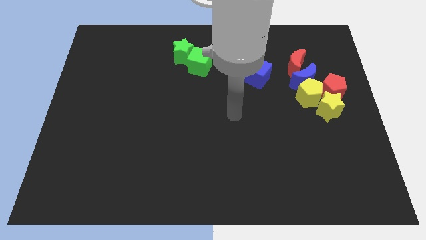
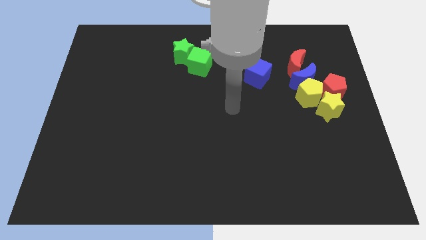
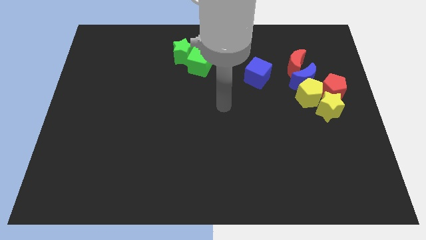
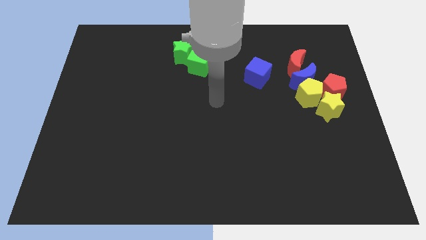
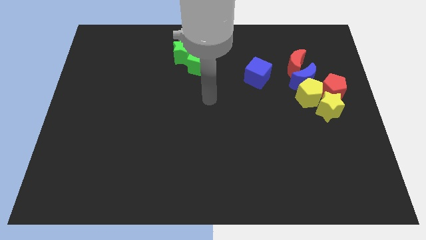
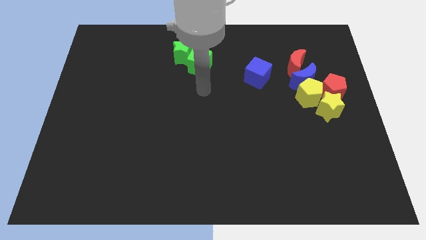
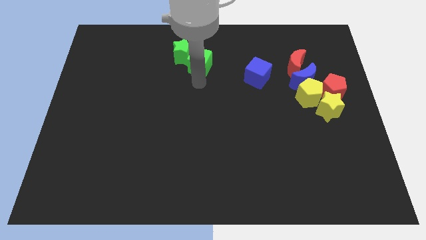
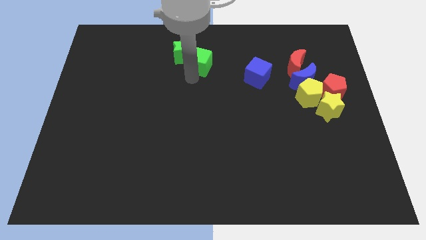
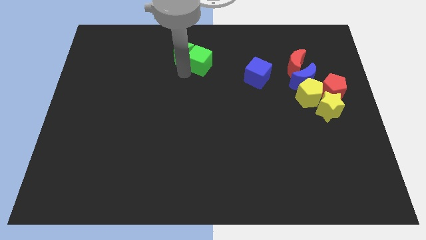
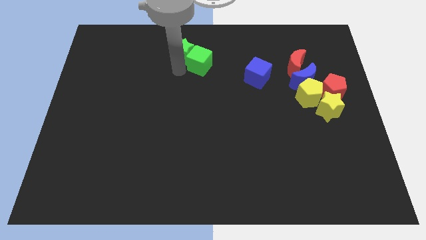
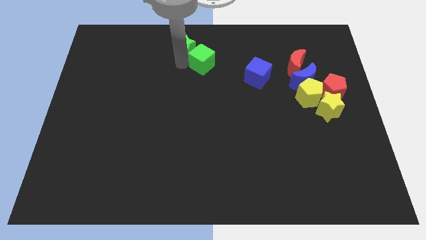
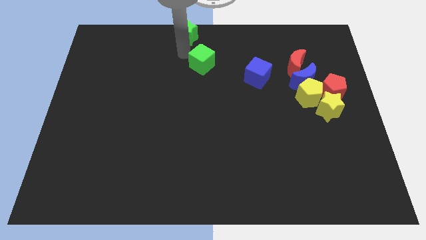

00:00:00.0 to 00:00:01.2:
pull the green cube apart from the green star

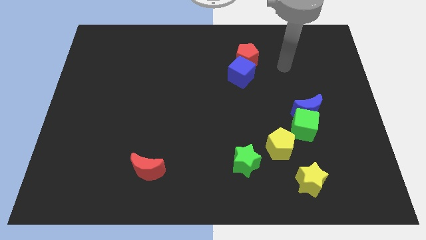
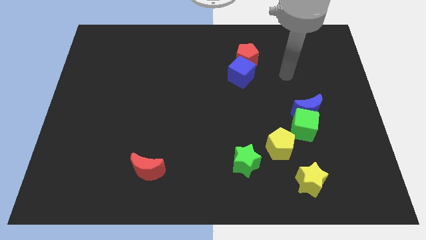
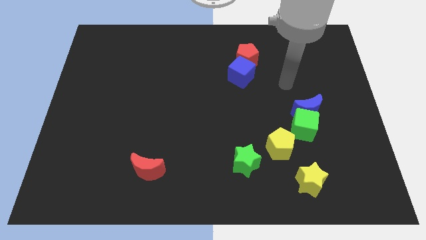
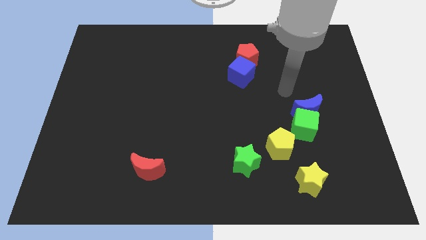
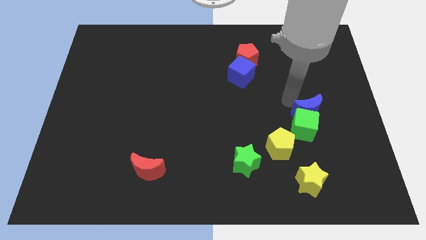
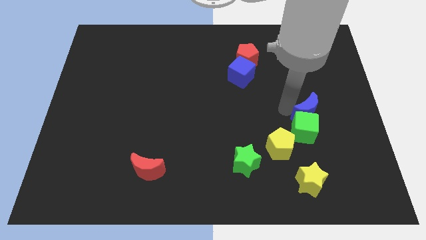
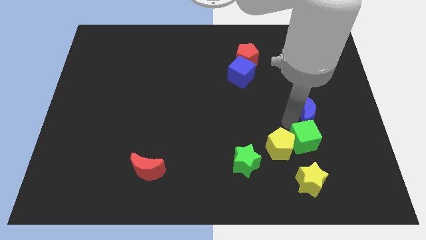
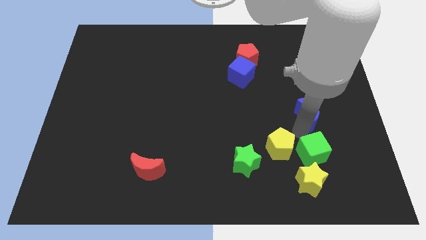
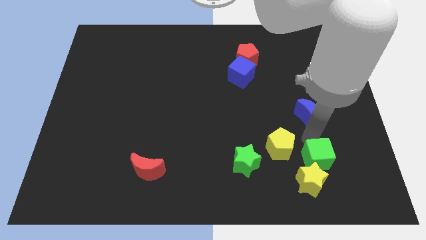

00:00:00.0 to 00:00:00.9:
pull the blue moon apart from the green cube

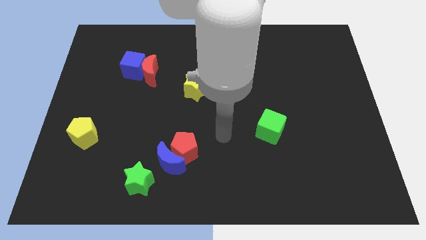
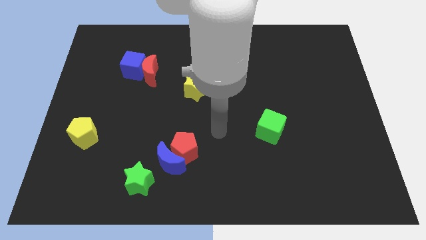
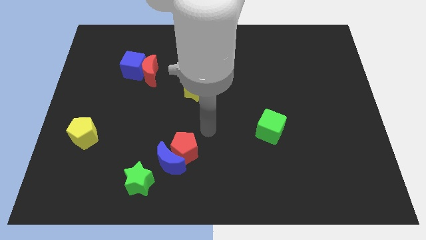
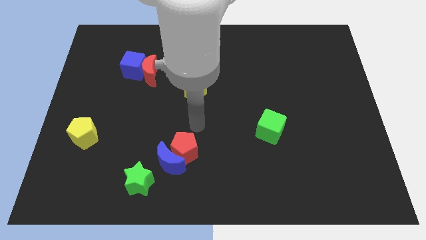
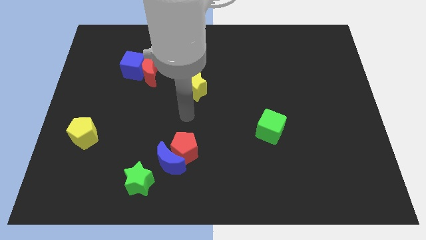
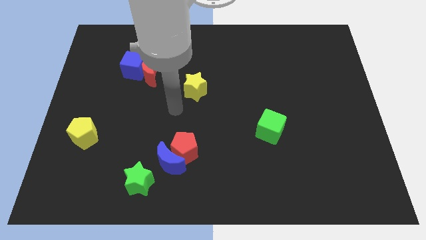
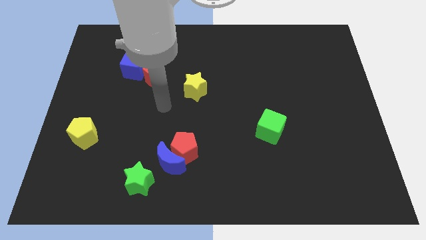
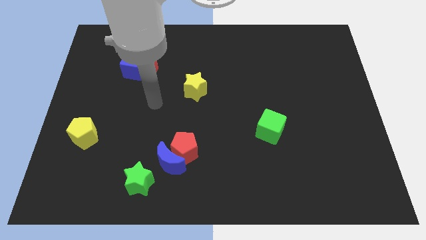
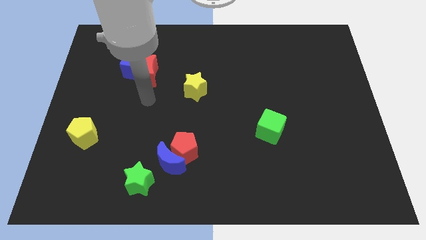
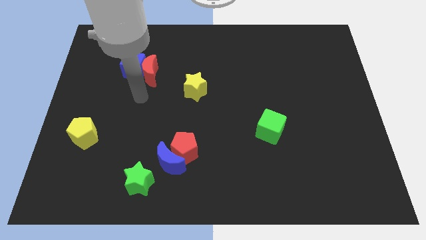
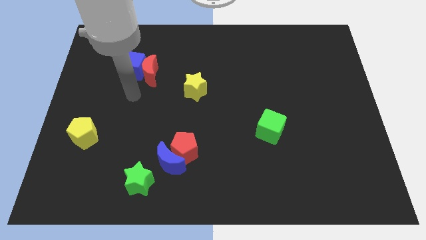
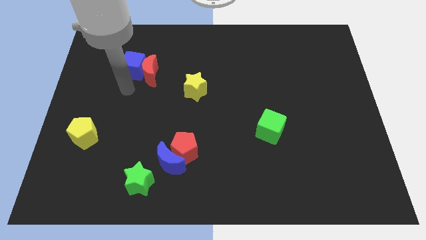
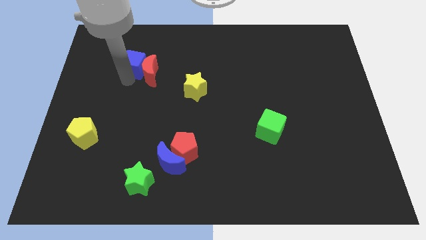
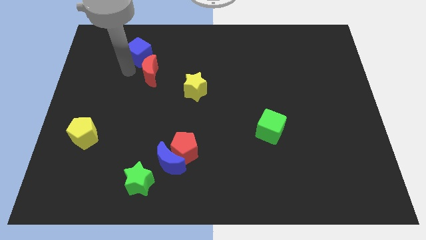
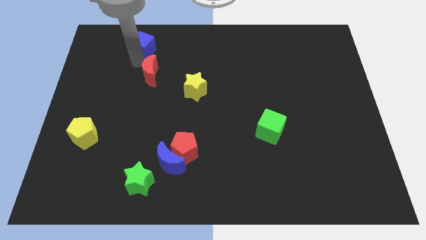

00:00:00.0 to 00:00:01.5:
pull the red moon apart from the blue cube

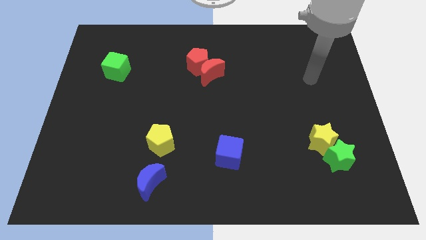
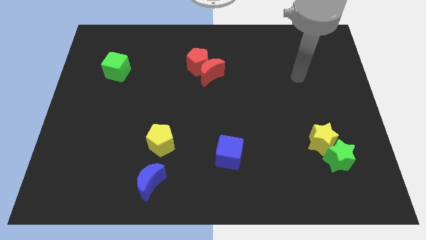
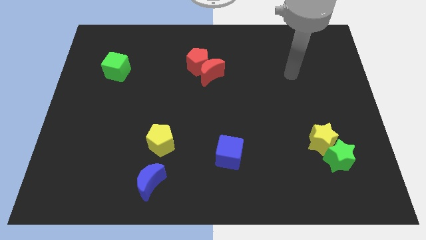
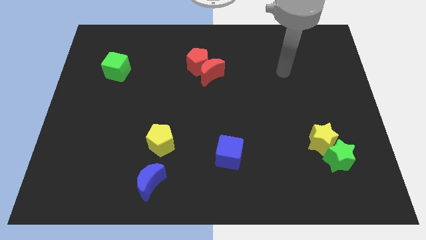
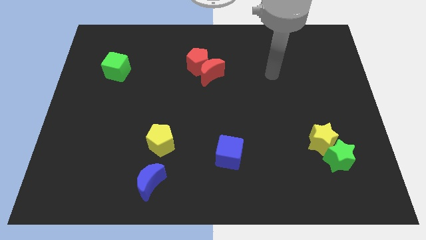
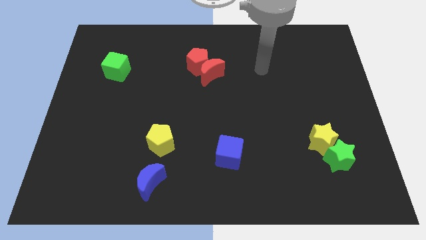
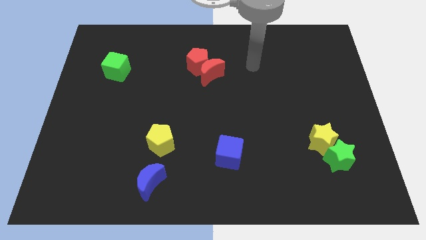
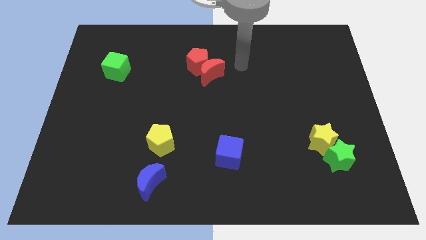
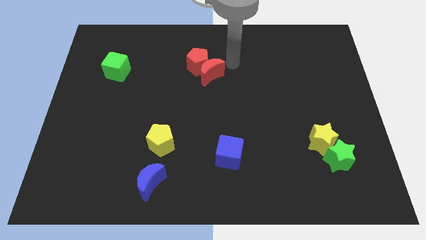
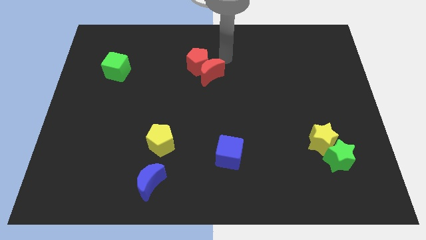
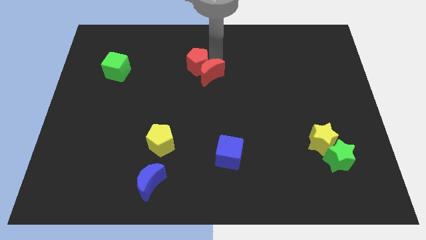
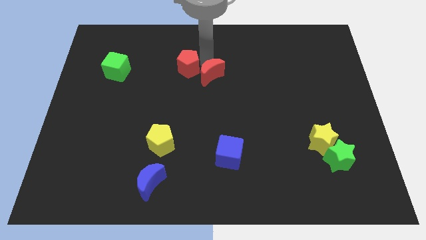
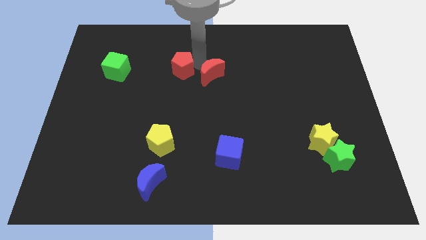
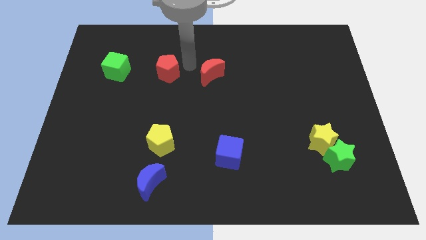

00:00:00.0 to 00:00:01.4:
move the red moon away from the red pentagon

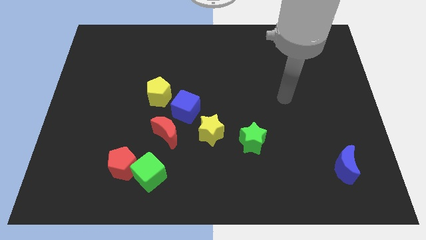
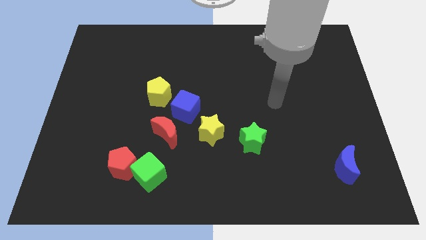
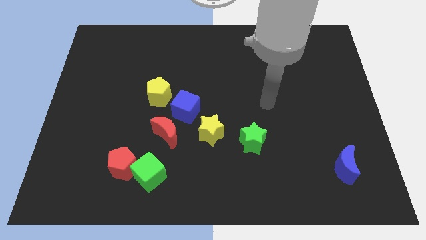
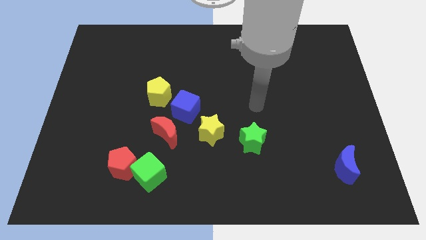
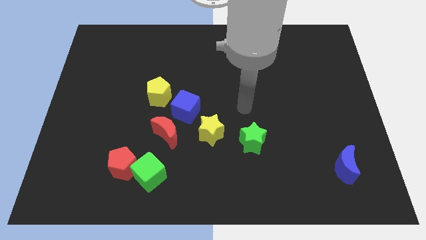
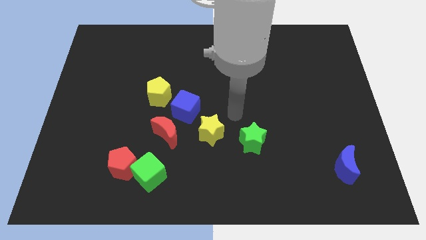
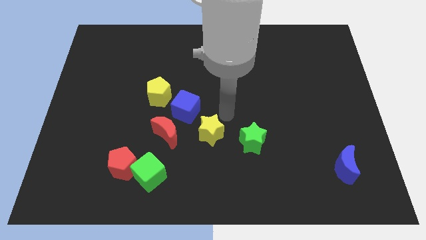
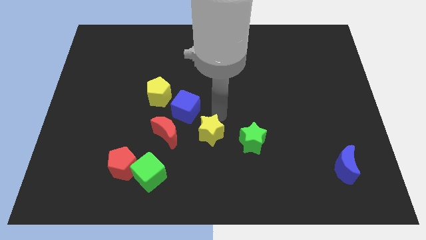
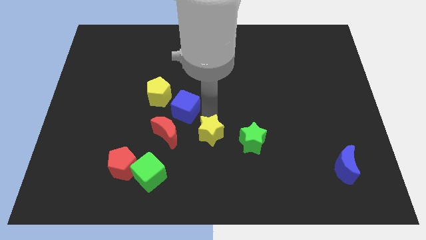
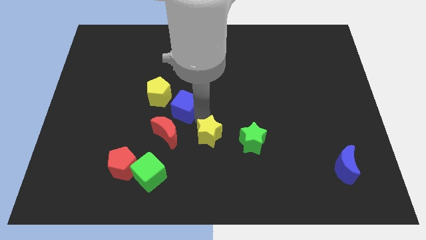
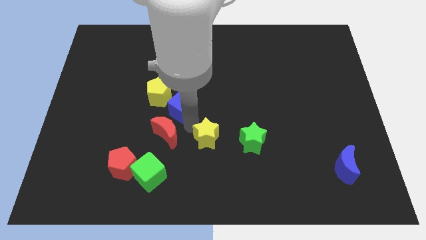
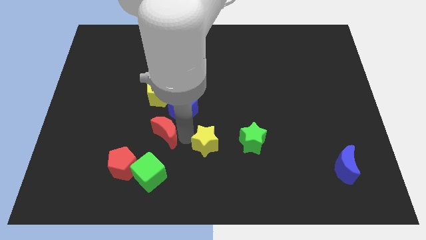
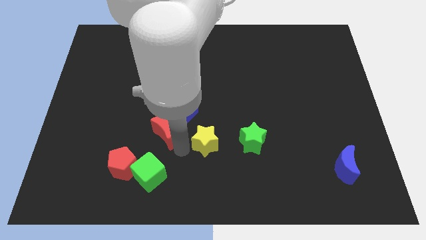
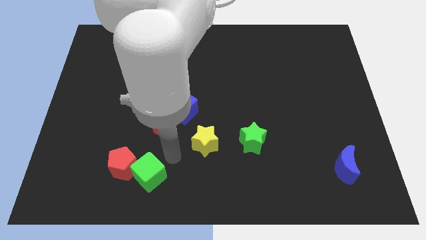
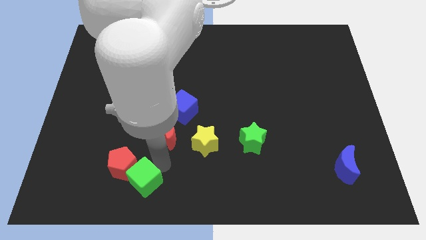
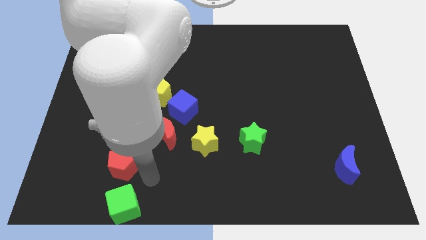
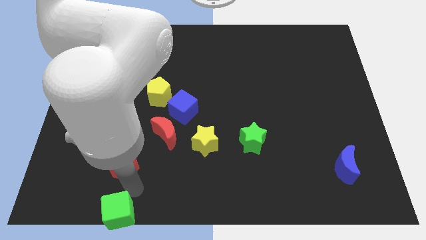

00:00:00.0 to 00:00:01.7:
move the red pentagon away from the green cube

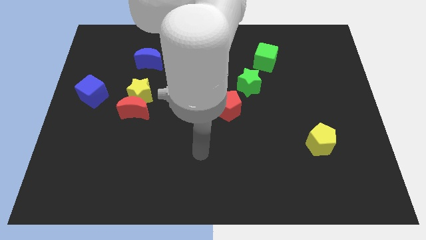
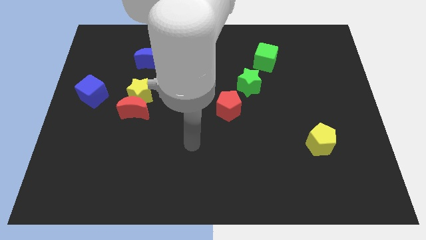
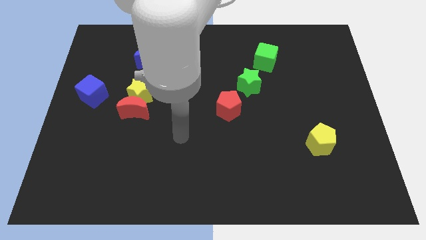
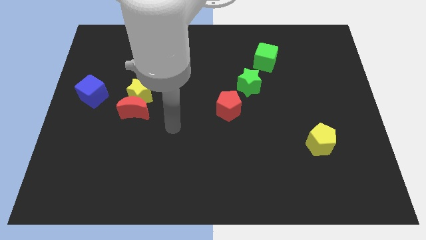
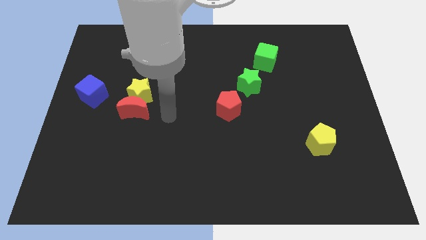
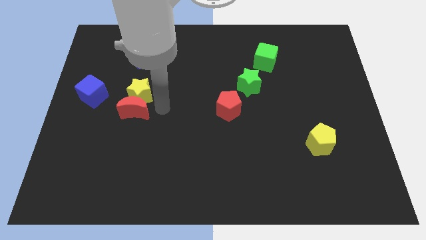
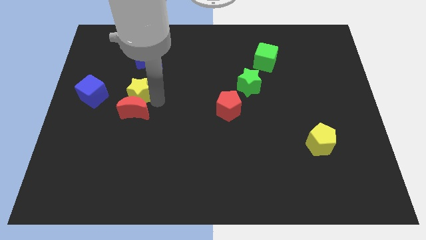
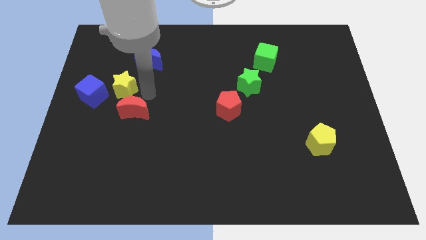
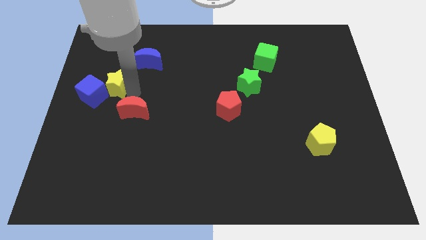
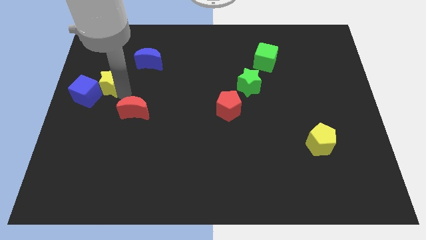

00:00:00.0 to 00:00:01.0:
move the red moon away from the yellow star

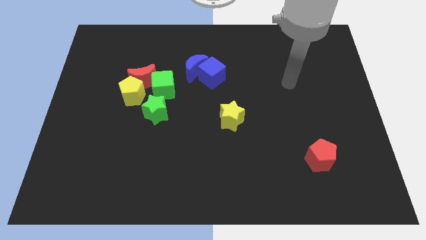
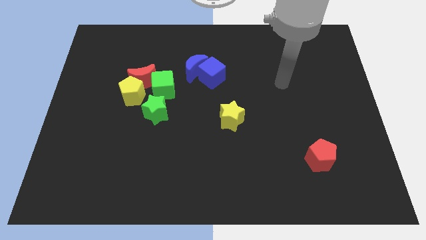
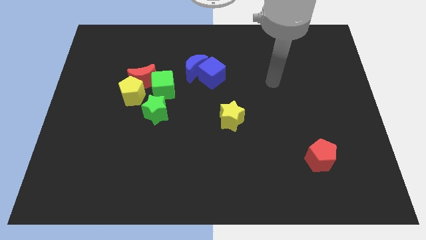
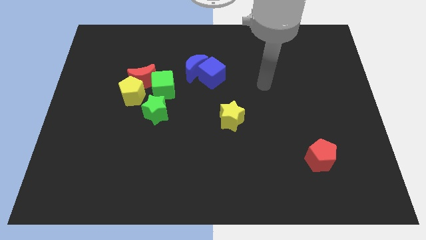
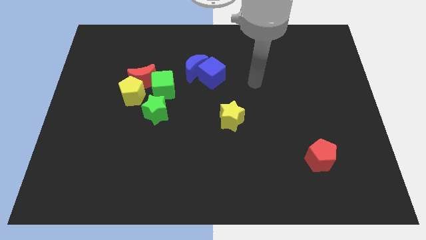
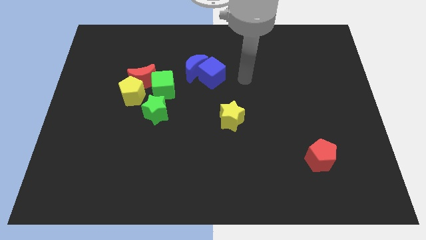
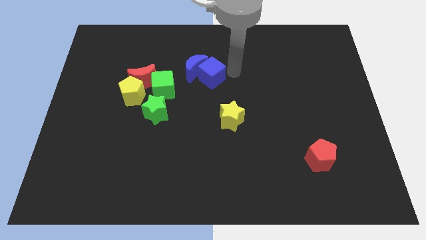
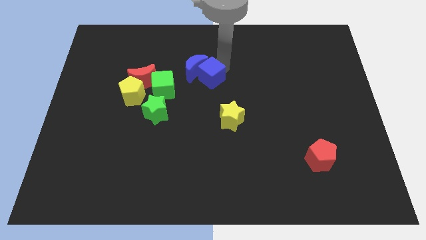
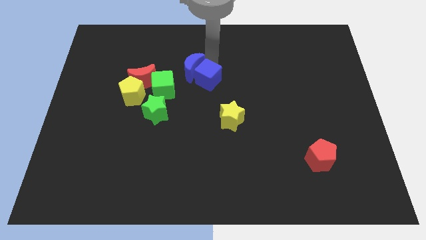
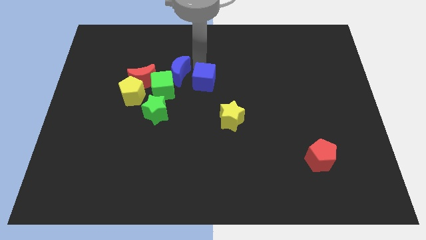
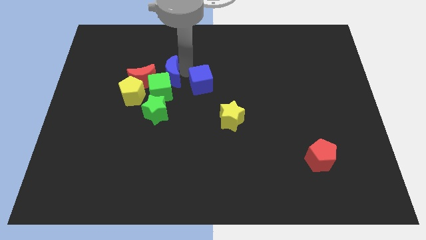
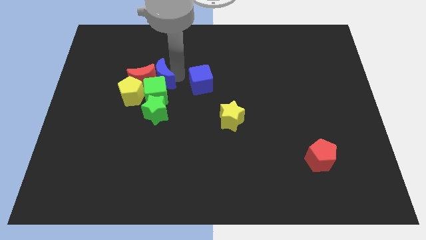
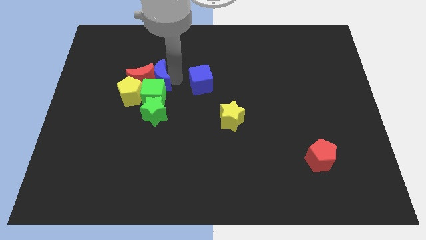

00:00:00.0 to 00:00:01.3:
separate the blue cube from the blue moon

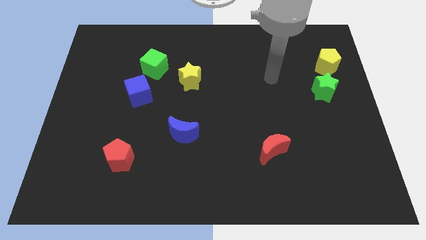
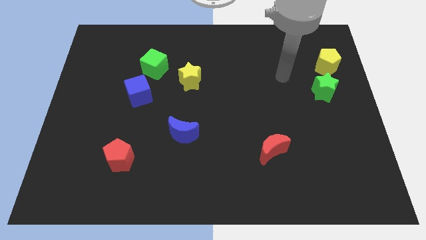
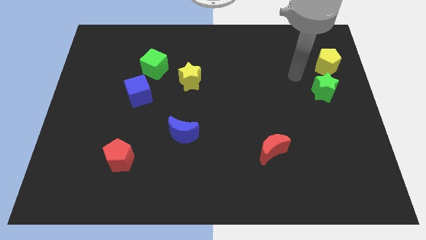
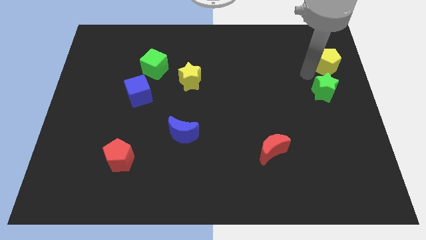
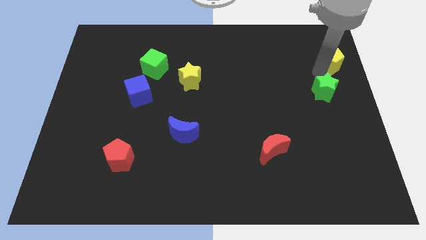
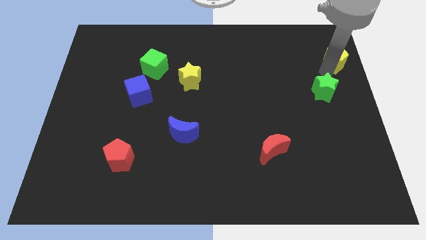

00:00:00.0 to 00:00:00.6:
pull the green star apart from the yellow pentagon
